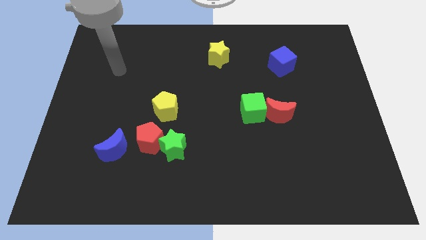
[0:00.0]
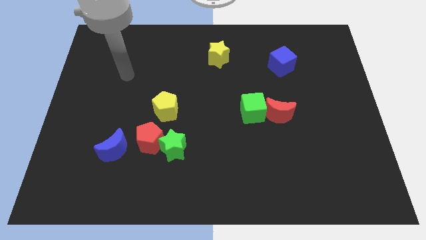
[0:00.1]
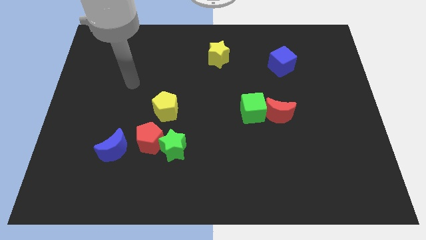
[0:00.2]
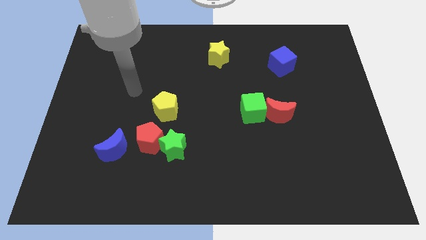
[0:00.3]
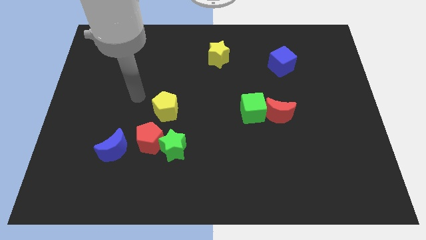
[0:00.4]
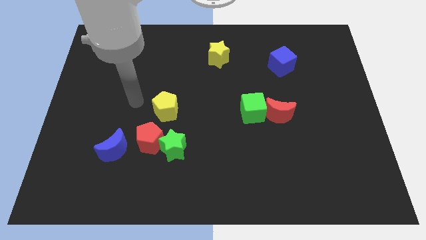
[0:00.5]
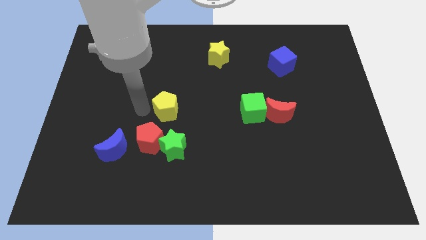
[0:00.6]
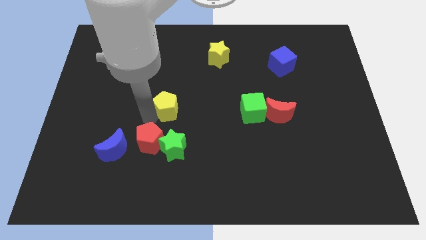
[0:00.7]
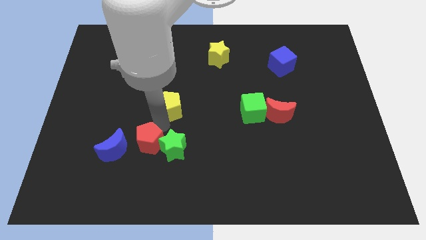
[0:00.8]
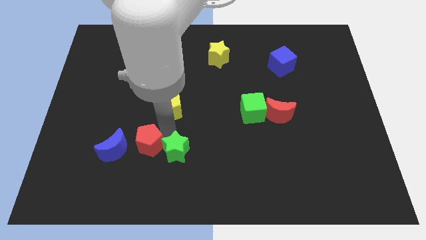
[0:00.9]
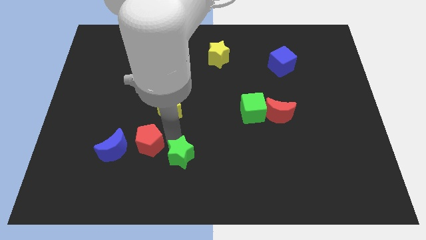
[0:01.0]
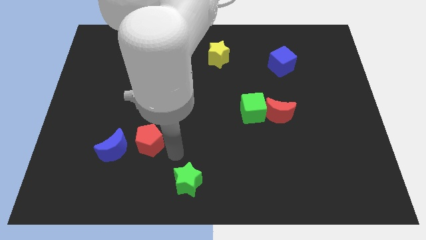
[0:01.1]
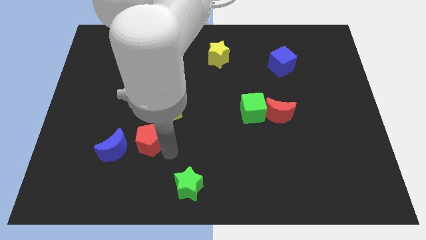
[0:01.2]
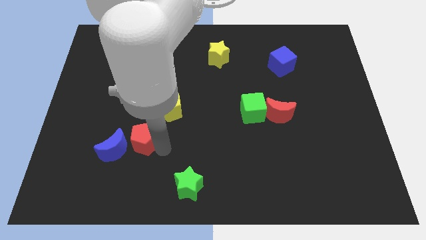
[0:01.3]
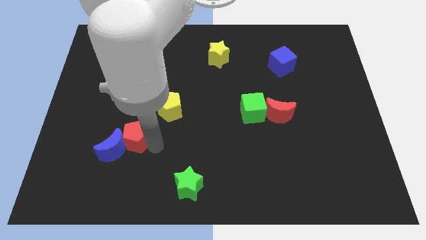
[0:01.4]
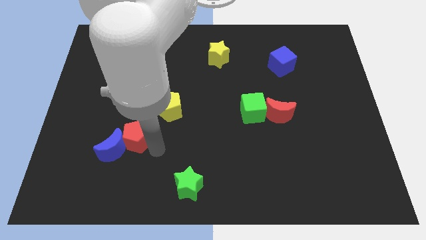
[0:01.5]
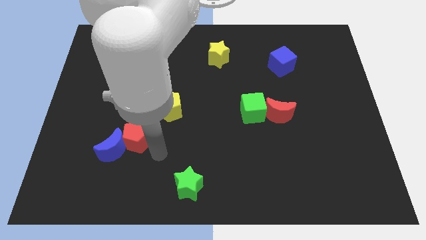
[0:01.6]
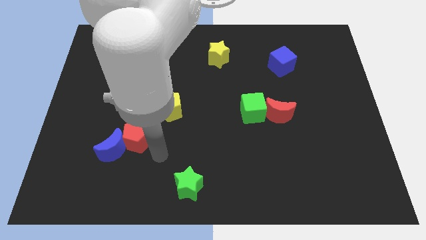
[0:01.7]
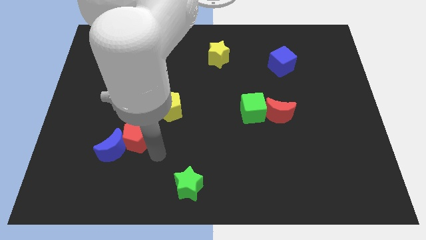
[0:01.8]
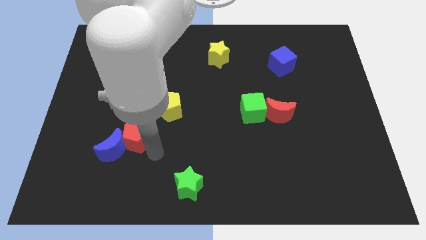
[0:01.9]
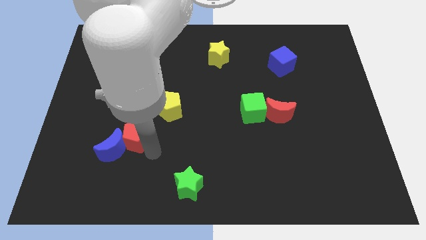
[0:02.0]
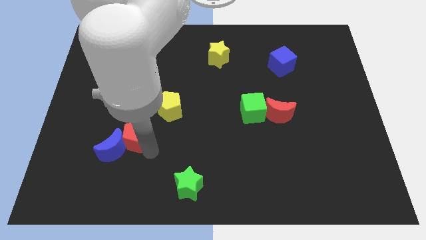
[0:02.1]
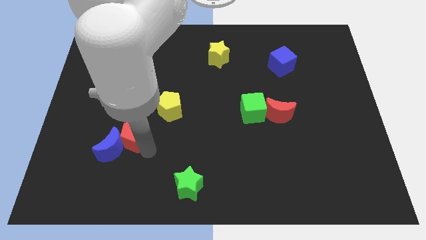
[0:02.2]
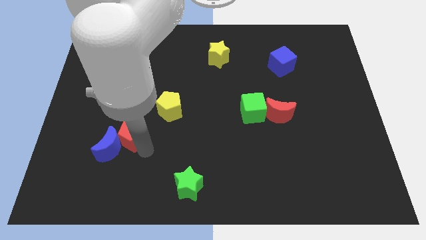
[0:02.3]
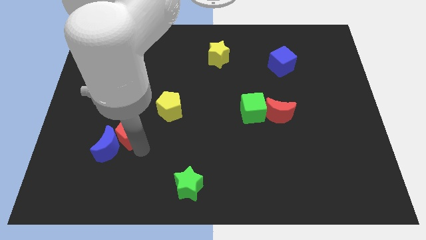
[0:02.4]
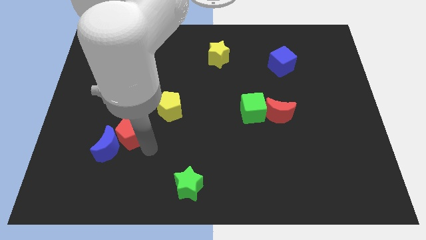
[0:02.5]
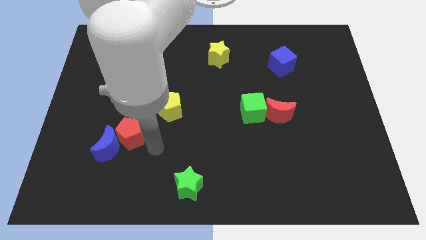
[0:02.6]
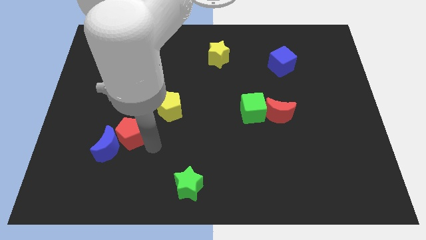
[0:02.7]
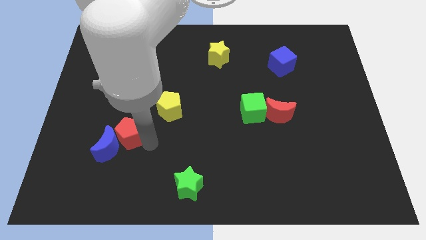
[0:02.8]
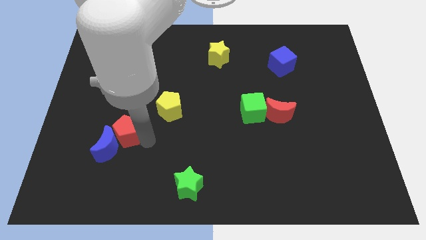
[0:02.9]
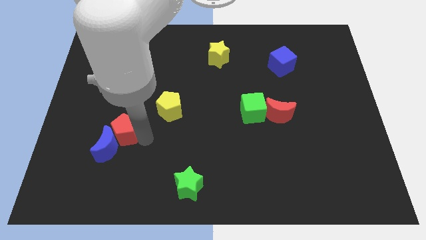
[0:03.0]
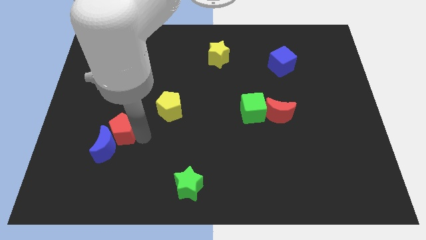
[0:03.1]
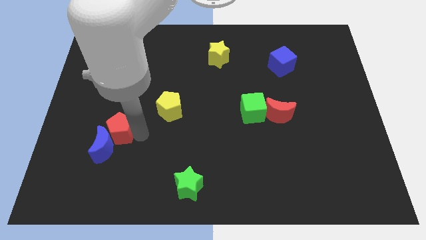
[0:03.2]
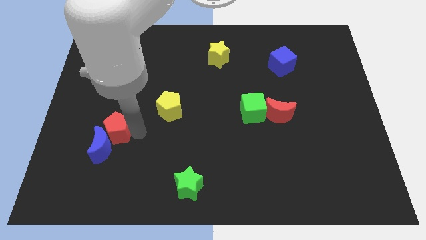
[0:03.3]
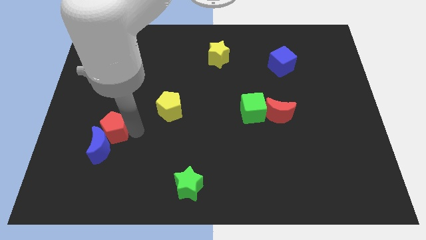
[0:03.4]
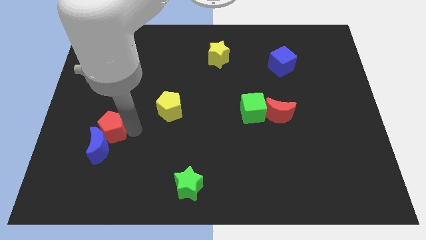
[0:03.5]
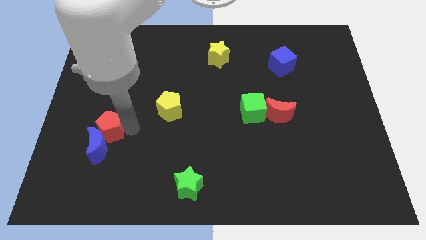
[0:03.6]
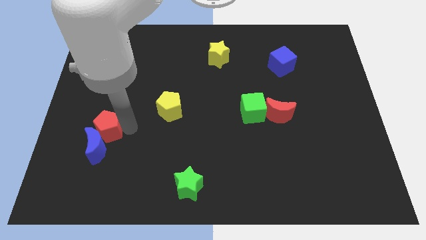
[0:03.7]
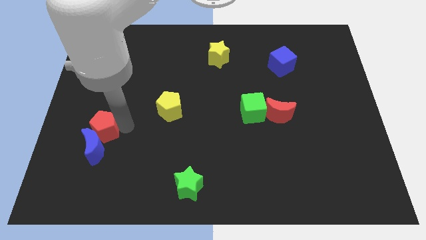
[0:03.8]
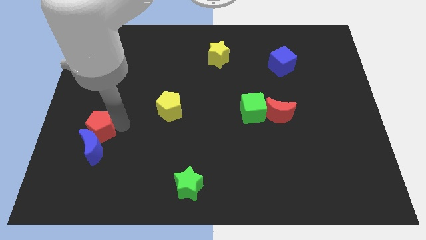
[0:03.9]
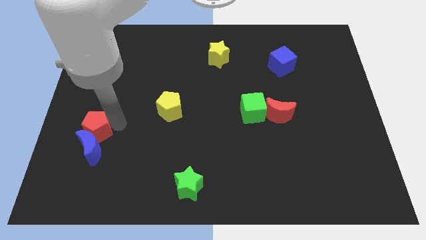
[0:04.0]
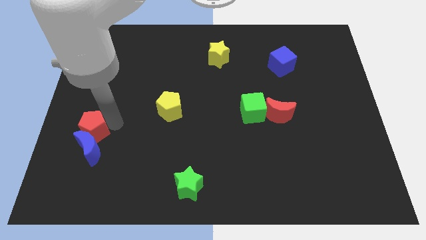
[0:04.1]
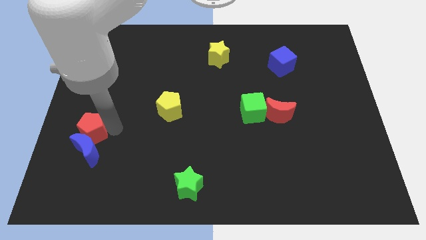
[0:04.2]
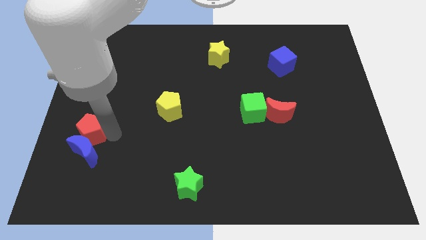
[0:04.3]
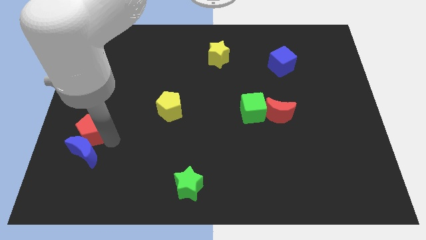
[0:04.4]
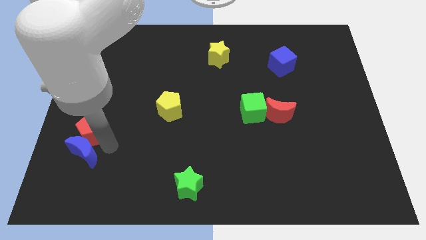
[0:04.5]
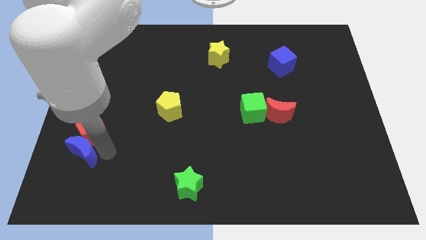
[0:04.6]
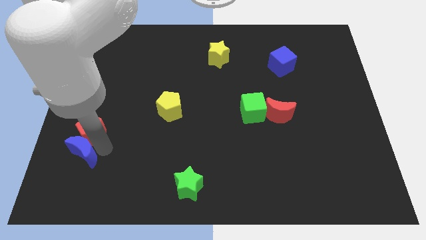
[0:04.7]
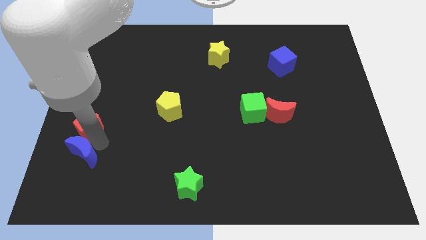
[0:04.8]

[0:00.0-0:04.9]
push the red pentagon to the left side

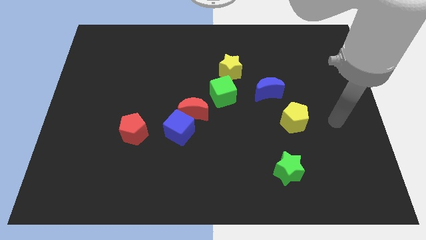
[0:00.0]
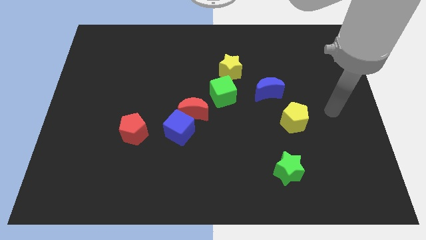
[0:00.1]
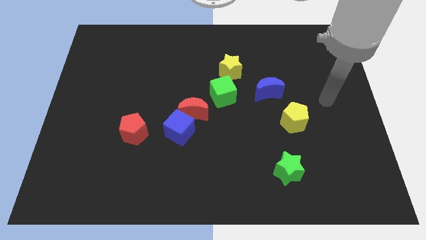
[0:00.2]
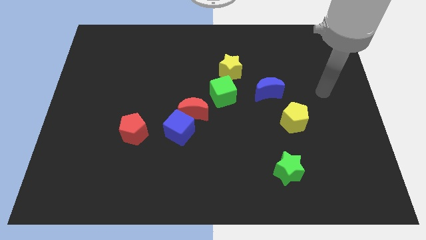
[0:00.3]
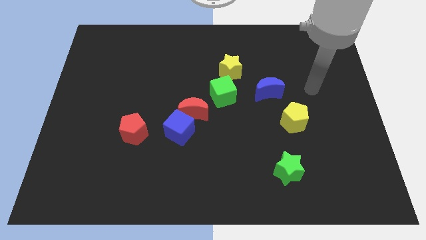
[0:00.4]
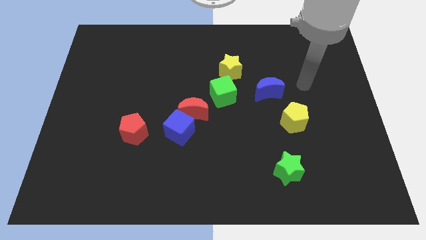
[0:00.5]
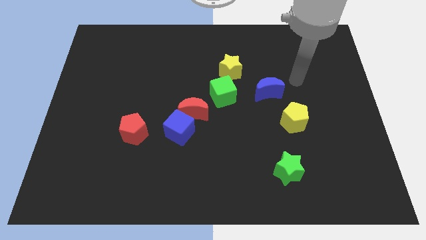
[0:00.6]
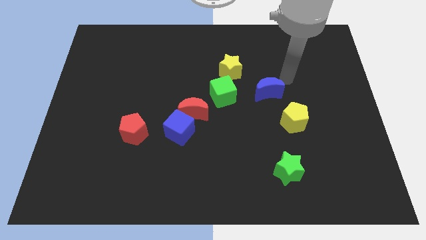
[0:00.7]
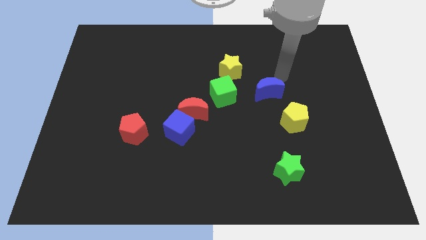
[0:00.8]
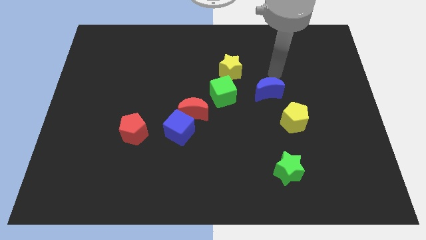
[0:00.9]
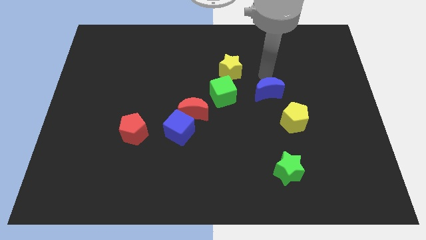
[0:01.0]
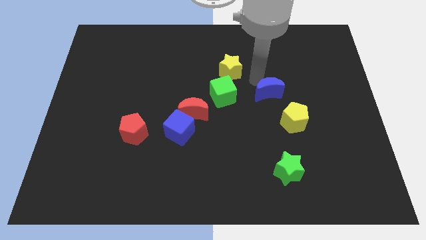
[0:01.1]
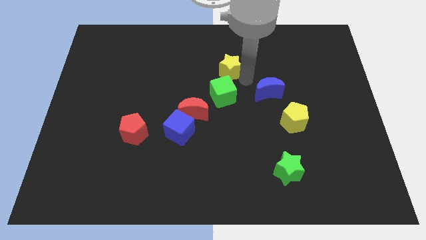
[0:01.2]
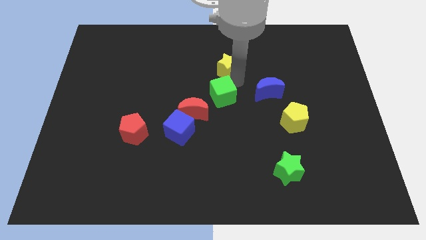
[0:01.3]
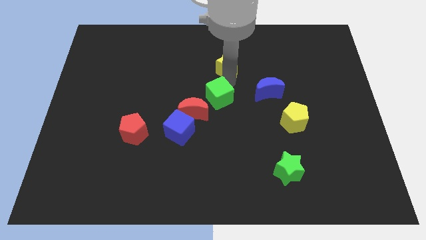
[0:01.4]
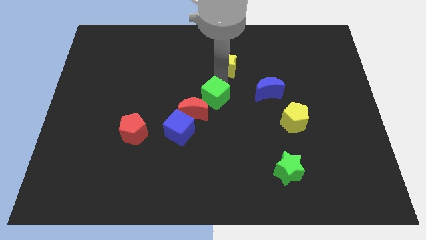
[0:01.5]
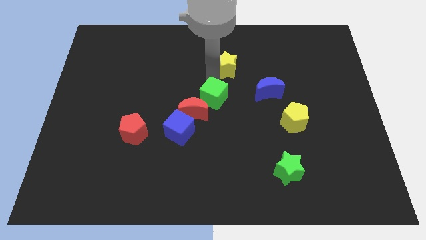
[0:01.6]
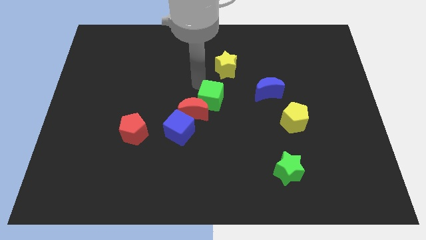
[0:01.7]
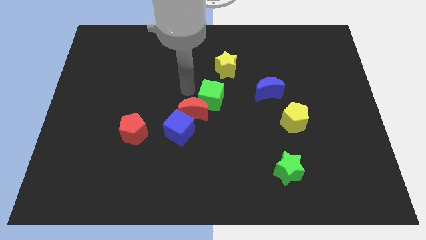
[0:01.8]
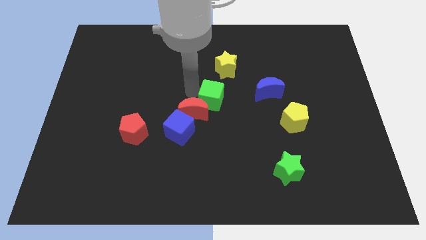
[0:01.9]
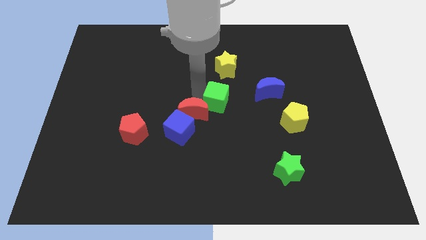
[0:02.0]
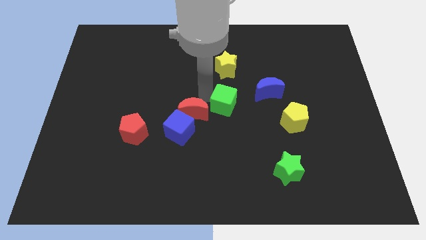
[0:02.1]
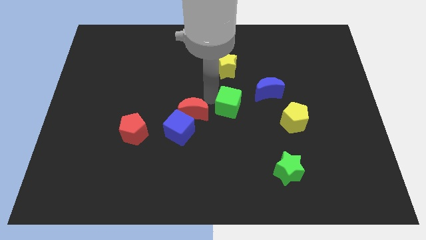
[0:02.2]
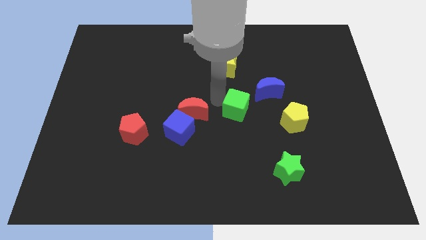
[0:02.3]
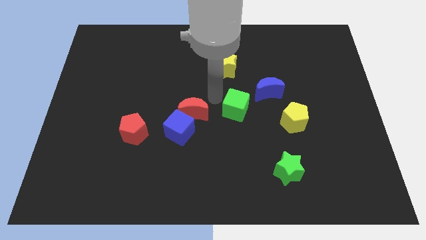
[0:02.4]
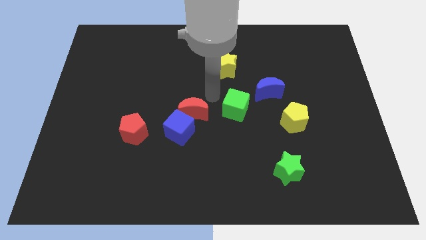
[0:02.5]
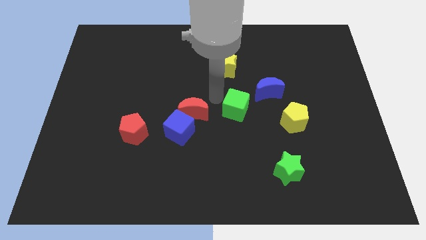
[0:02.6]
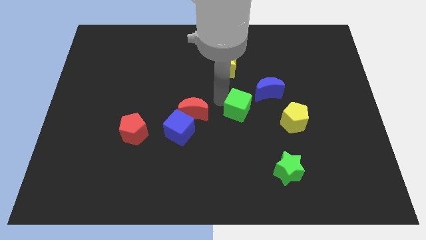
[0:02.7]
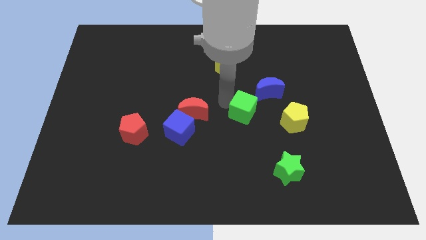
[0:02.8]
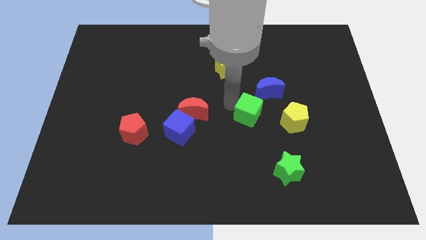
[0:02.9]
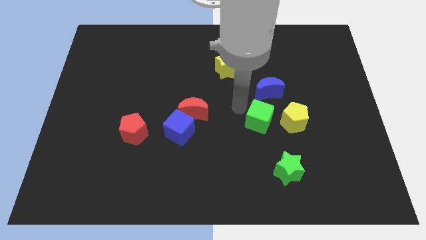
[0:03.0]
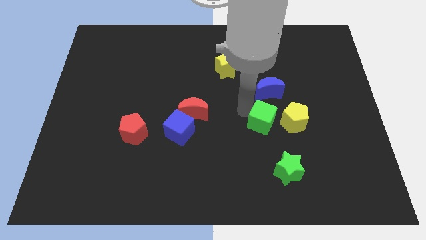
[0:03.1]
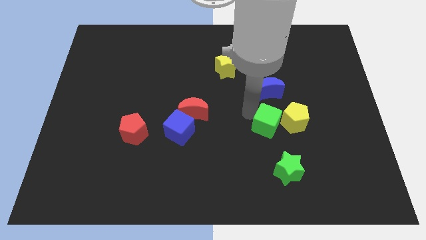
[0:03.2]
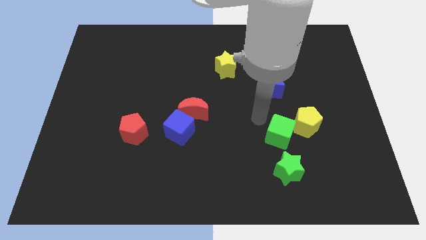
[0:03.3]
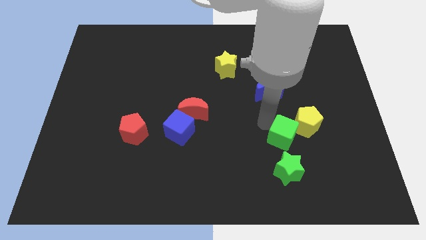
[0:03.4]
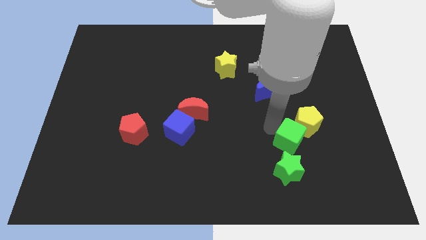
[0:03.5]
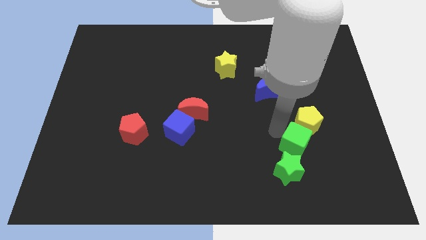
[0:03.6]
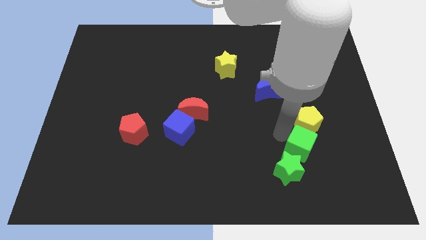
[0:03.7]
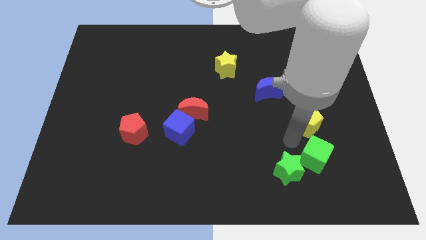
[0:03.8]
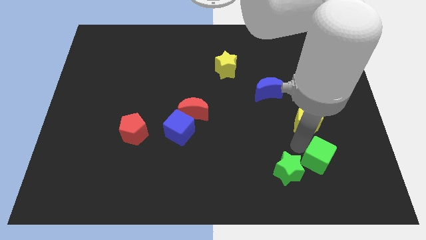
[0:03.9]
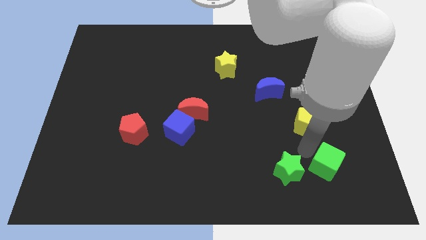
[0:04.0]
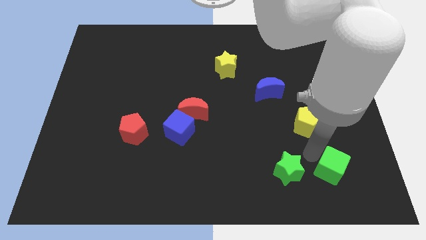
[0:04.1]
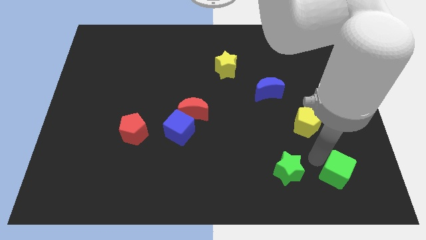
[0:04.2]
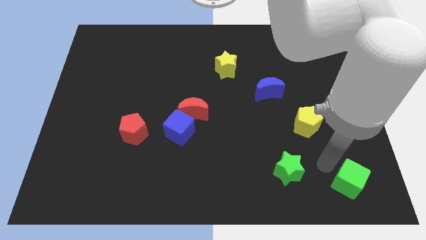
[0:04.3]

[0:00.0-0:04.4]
move the green cube to the bottom right of the board
